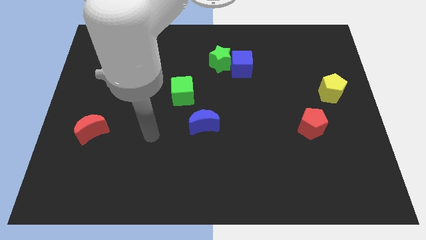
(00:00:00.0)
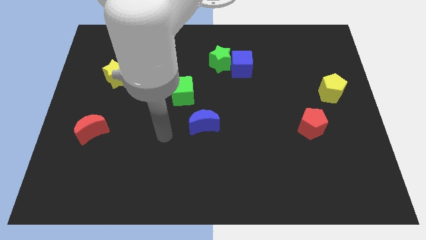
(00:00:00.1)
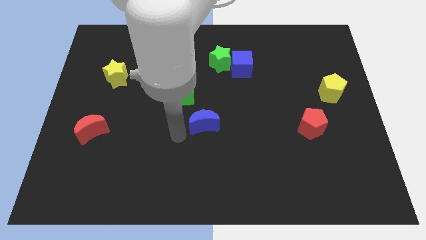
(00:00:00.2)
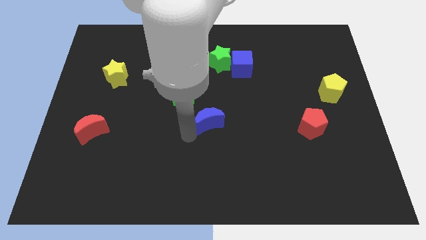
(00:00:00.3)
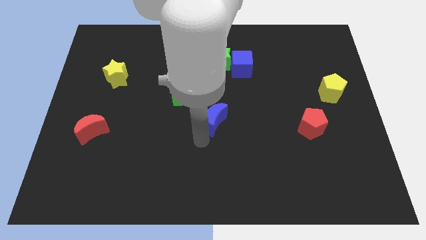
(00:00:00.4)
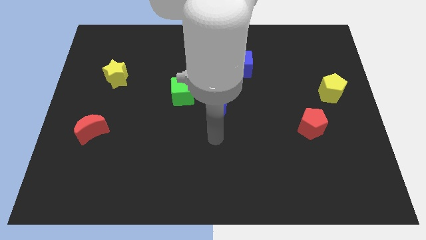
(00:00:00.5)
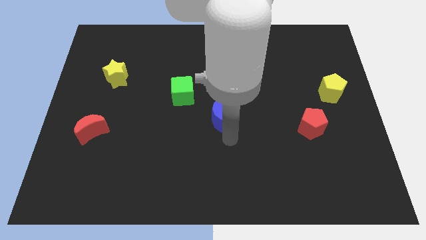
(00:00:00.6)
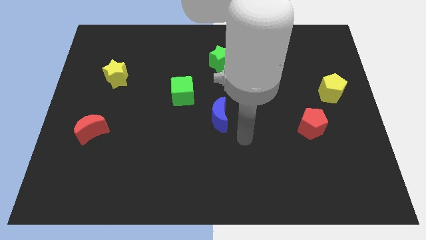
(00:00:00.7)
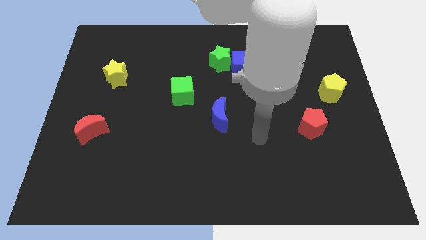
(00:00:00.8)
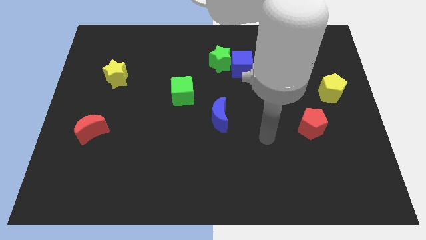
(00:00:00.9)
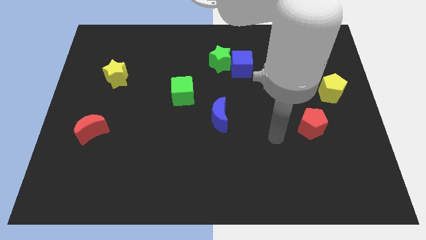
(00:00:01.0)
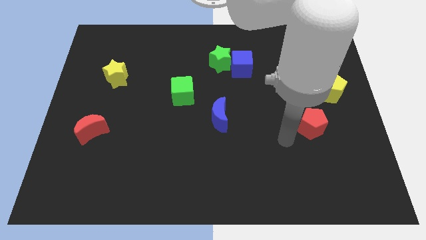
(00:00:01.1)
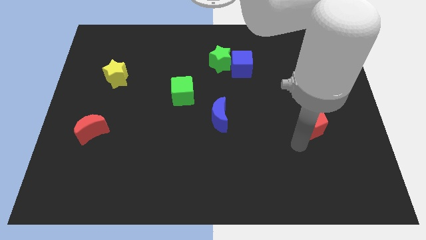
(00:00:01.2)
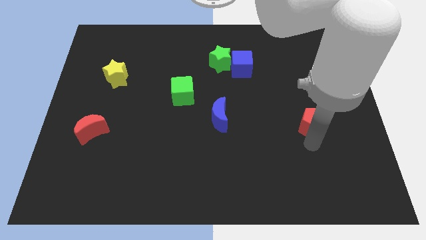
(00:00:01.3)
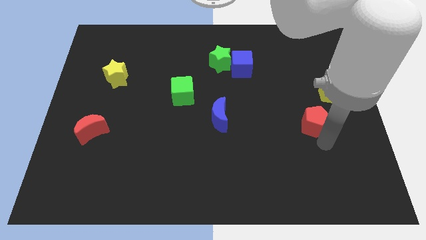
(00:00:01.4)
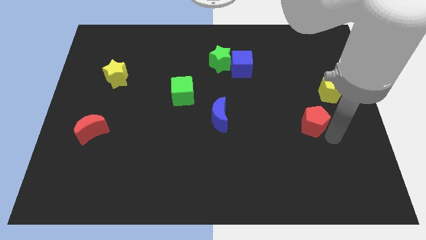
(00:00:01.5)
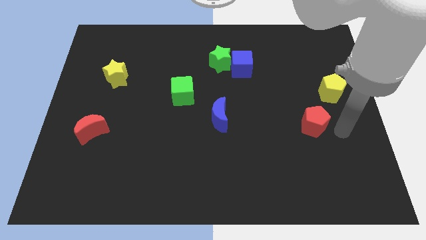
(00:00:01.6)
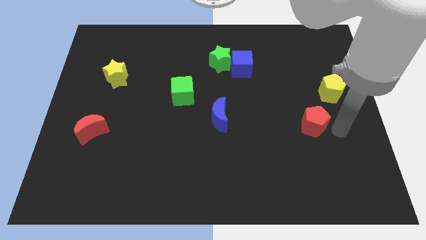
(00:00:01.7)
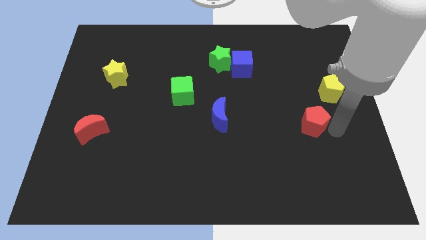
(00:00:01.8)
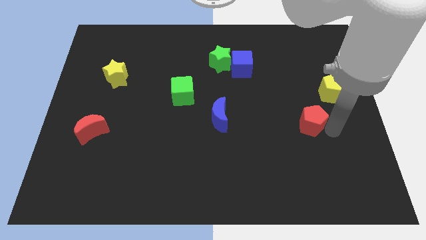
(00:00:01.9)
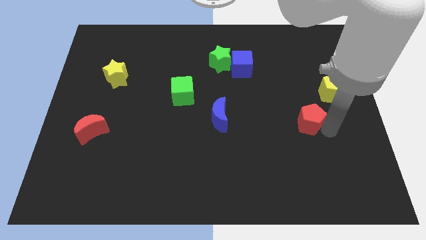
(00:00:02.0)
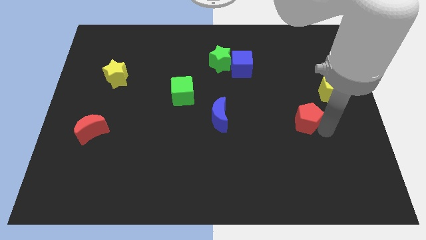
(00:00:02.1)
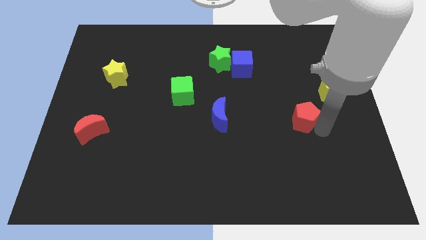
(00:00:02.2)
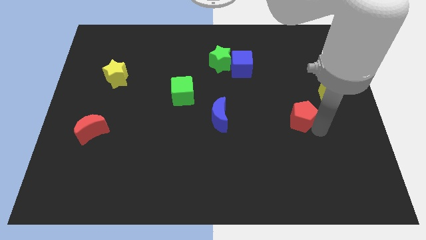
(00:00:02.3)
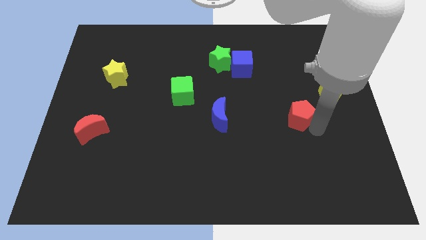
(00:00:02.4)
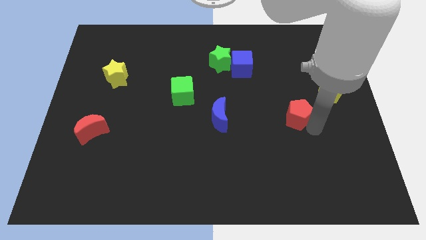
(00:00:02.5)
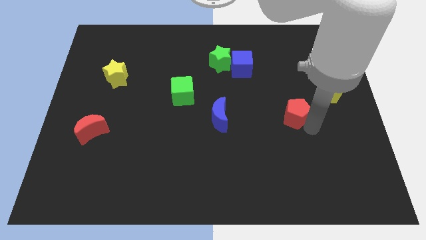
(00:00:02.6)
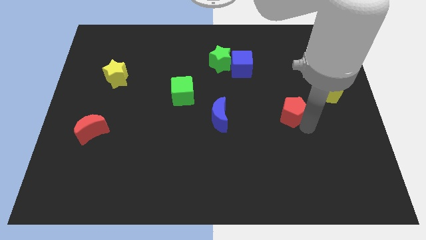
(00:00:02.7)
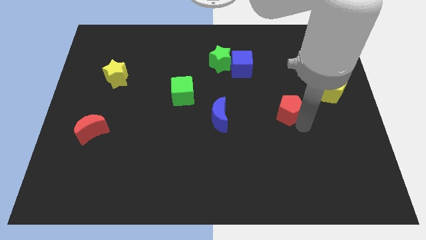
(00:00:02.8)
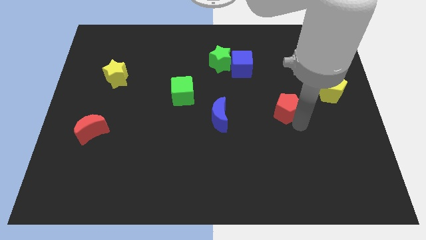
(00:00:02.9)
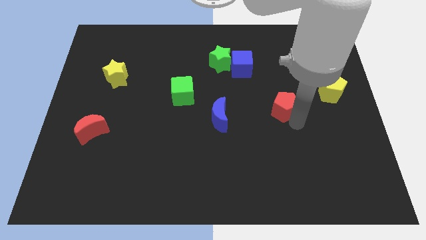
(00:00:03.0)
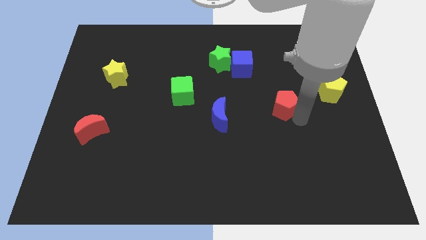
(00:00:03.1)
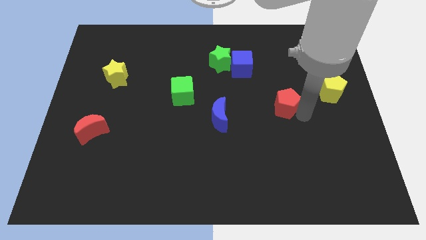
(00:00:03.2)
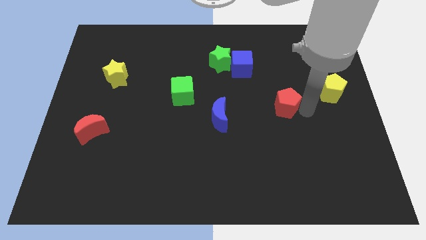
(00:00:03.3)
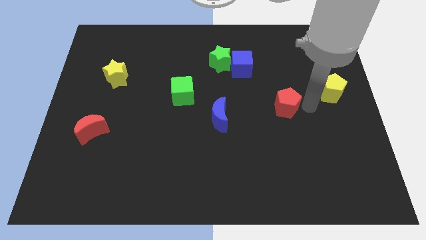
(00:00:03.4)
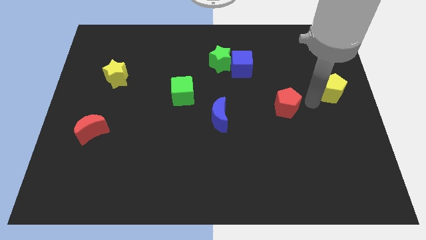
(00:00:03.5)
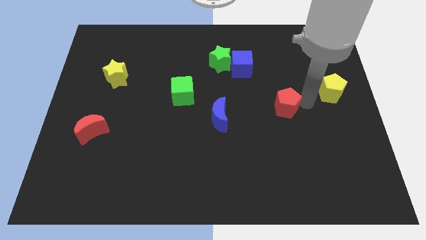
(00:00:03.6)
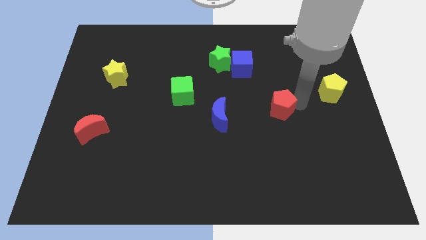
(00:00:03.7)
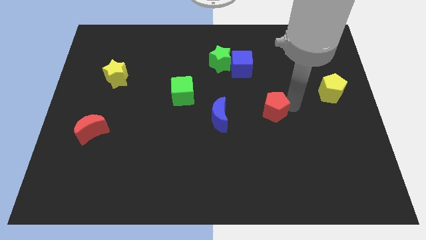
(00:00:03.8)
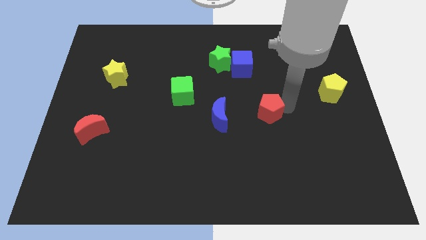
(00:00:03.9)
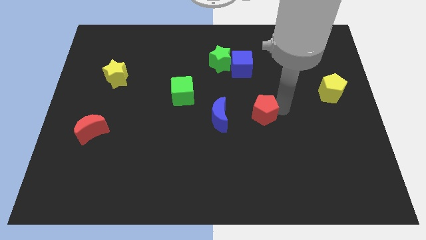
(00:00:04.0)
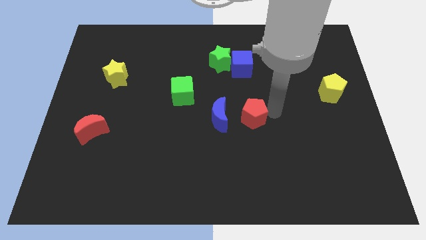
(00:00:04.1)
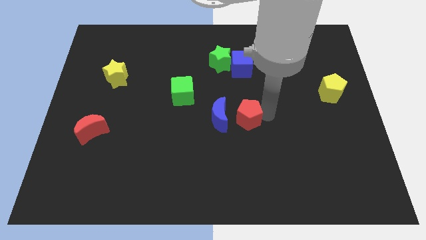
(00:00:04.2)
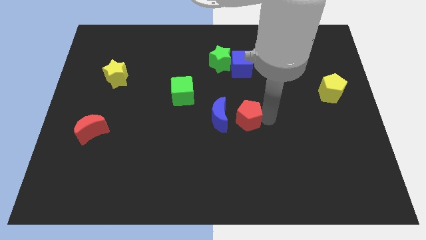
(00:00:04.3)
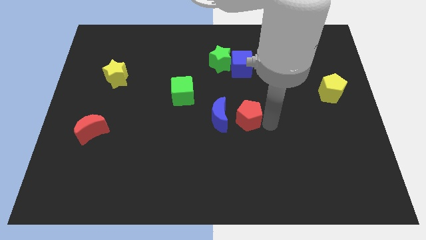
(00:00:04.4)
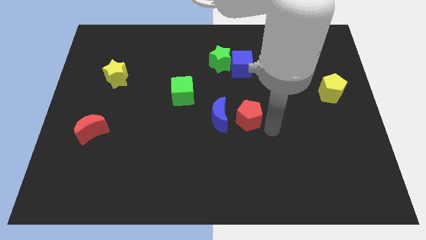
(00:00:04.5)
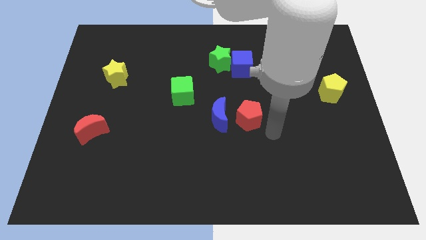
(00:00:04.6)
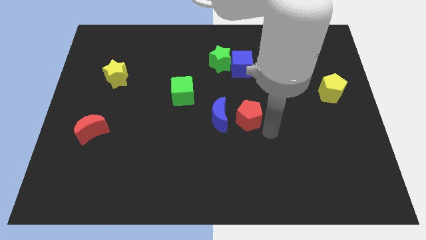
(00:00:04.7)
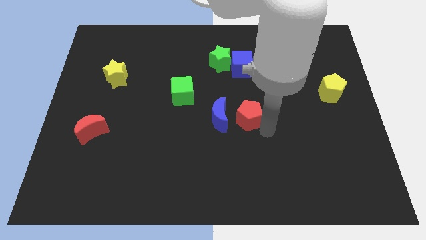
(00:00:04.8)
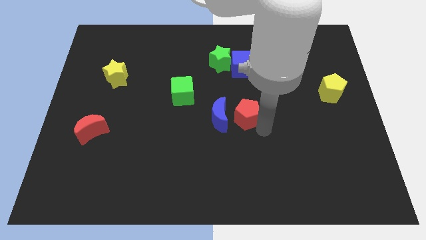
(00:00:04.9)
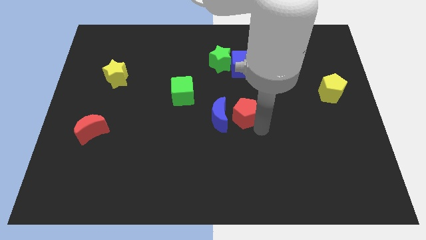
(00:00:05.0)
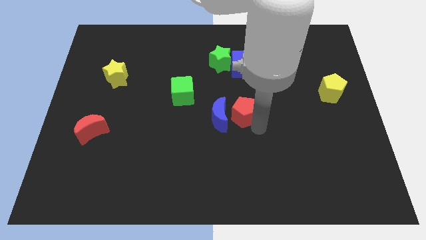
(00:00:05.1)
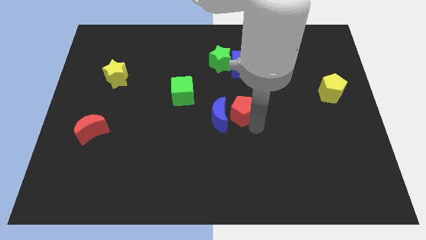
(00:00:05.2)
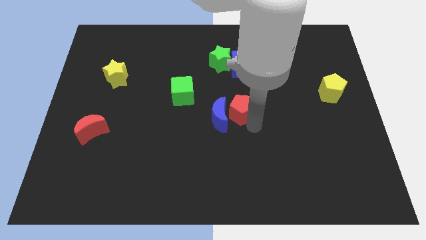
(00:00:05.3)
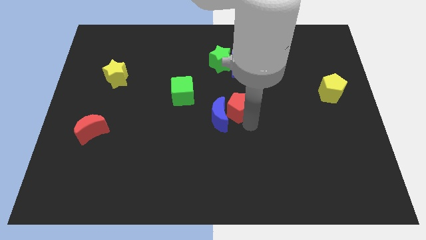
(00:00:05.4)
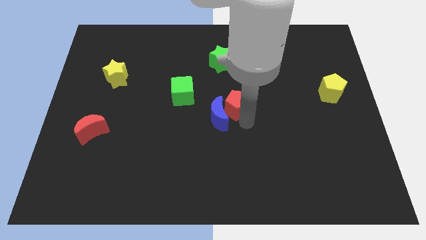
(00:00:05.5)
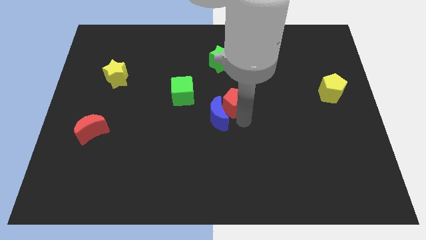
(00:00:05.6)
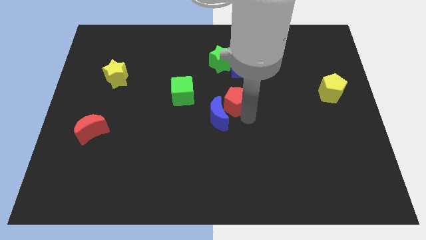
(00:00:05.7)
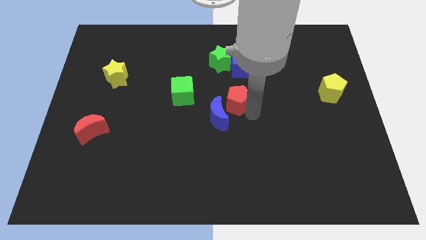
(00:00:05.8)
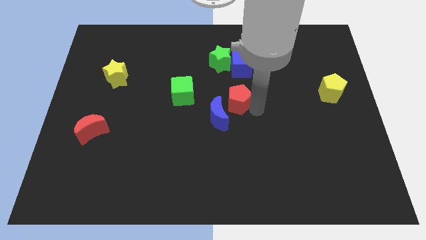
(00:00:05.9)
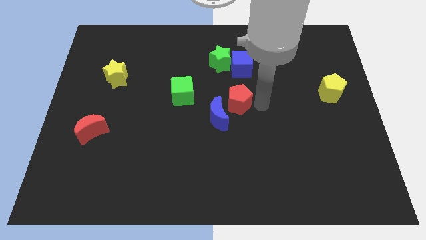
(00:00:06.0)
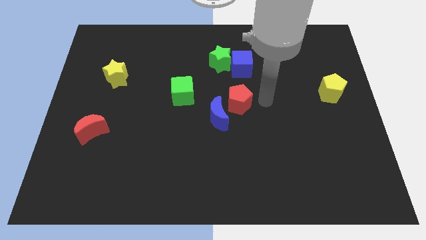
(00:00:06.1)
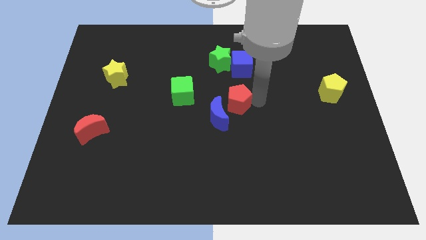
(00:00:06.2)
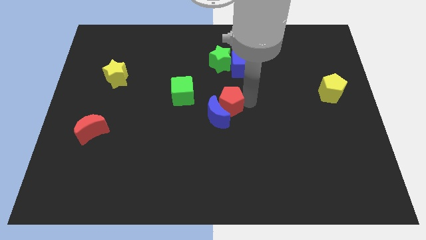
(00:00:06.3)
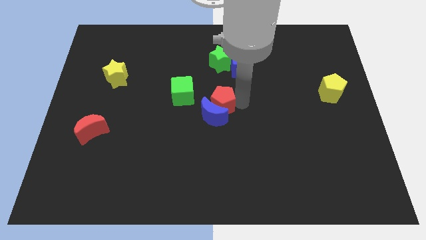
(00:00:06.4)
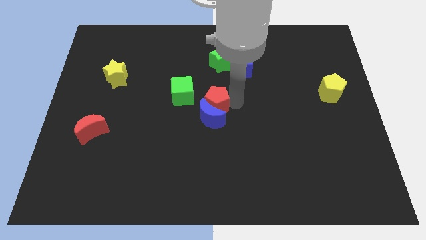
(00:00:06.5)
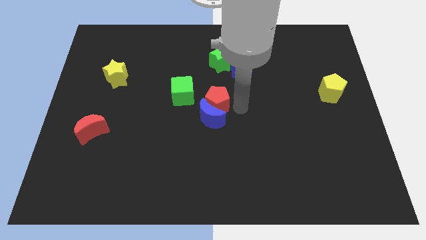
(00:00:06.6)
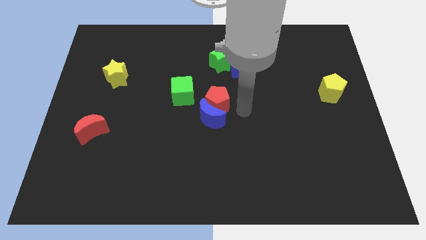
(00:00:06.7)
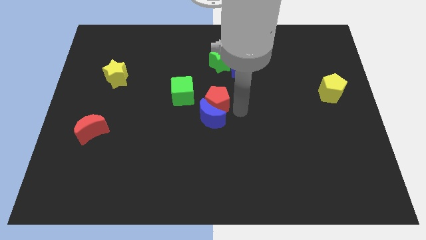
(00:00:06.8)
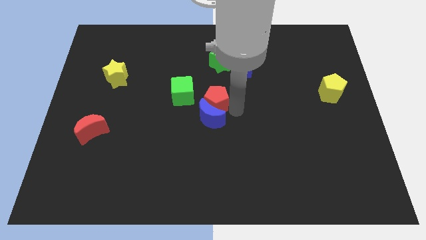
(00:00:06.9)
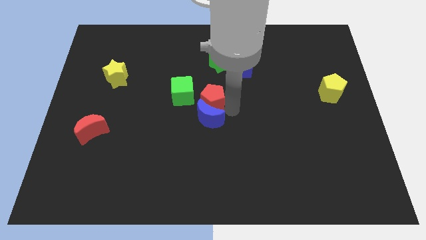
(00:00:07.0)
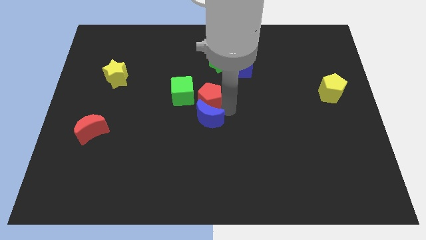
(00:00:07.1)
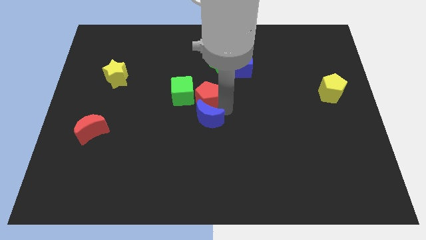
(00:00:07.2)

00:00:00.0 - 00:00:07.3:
slide the red pentagon next to the green cube
